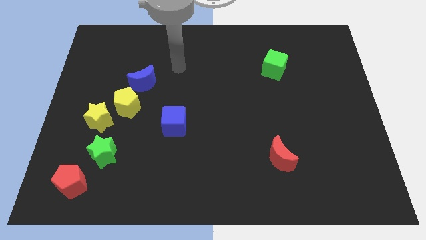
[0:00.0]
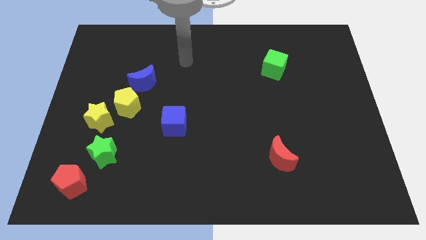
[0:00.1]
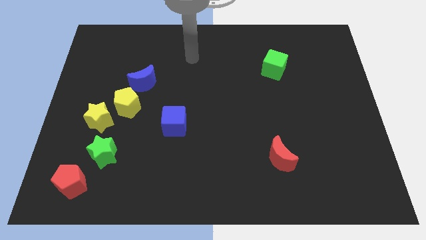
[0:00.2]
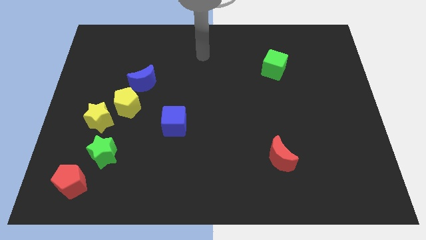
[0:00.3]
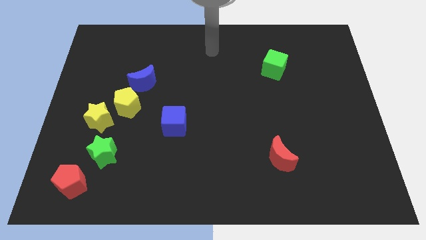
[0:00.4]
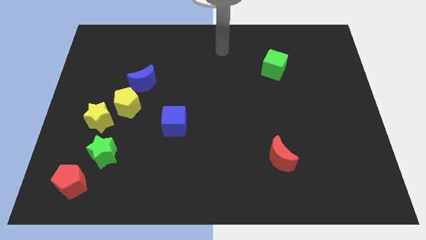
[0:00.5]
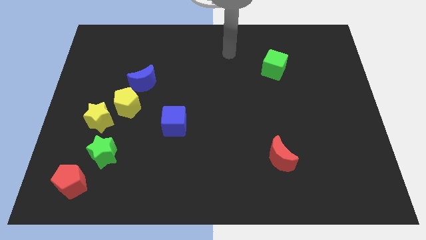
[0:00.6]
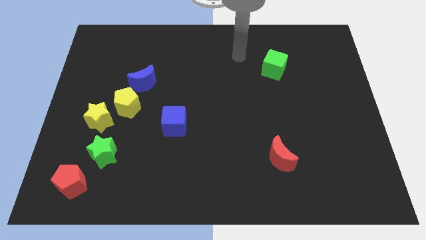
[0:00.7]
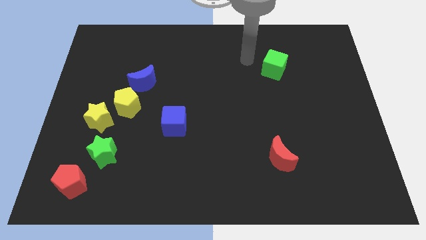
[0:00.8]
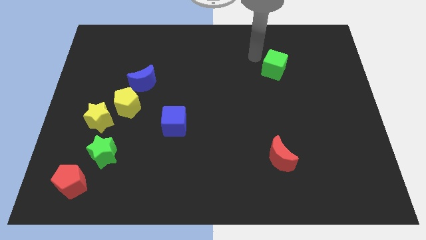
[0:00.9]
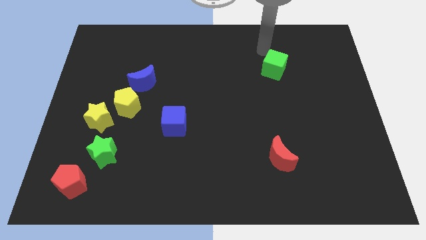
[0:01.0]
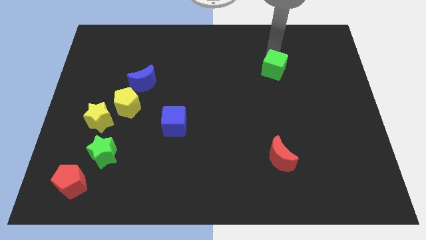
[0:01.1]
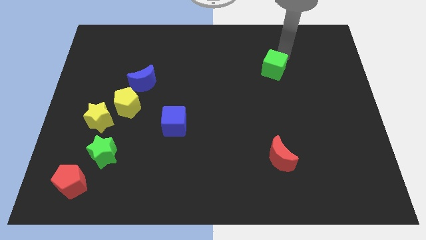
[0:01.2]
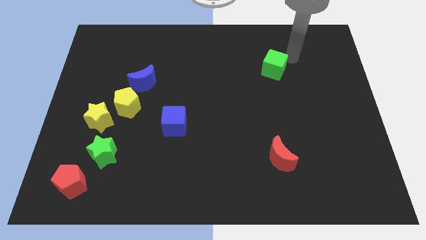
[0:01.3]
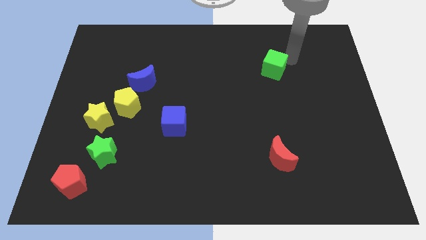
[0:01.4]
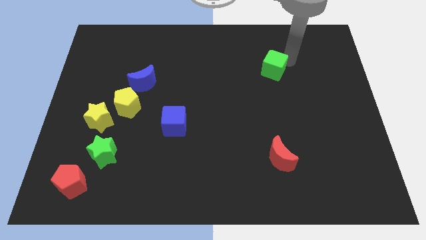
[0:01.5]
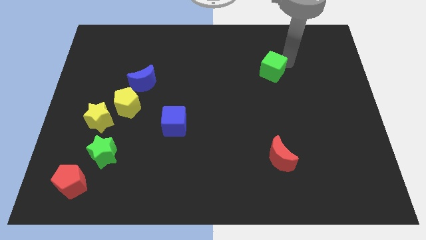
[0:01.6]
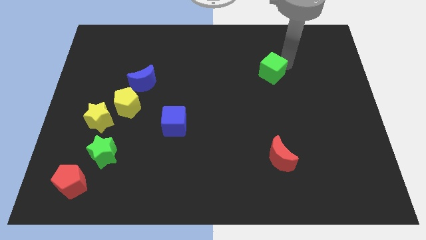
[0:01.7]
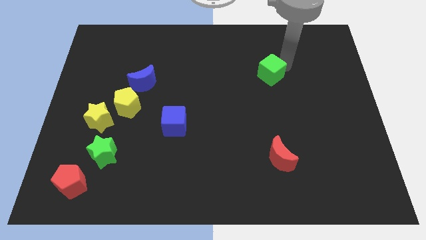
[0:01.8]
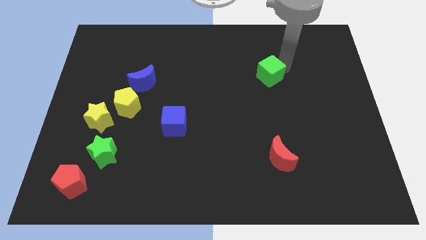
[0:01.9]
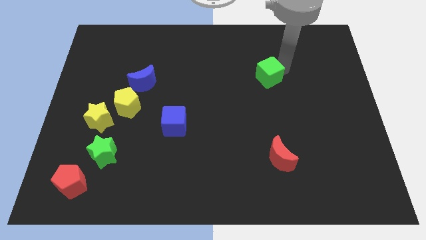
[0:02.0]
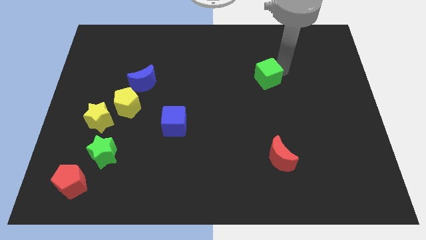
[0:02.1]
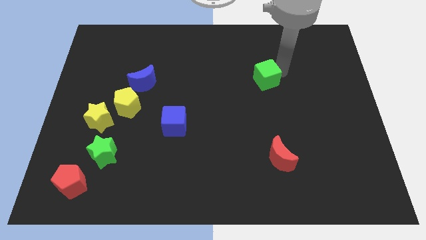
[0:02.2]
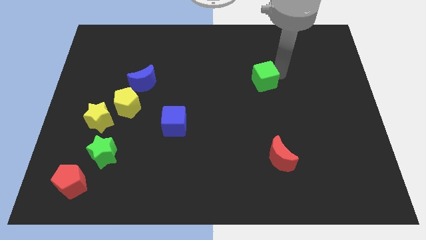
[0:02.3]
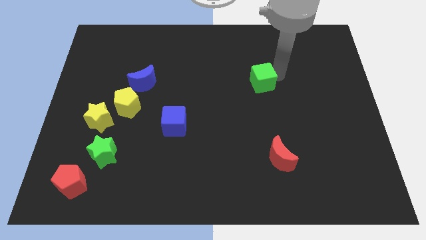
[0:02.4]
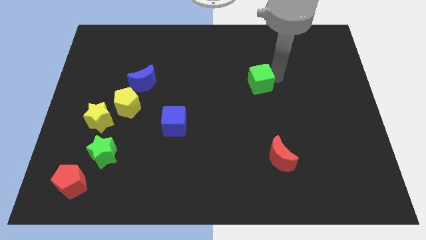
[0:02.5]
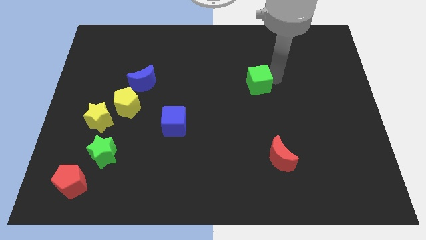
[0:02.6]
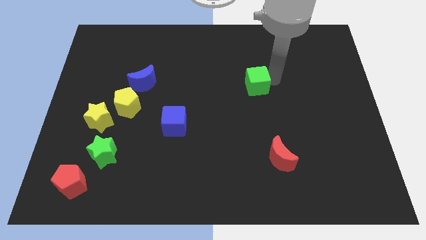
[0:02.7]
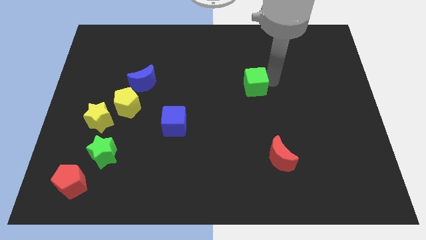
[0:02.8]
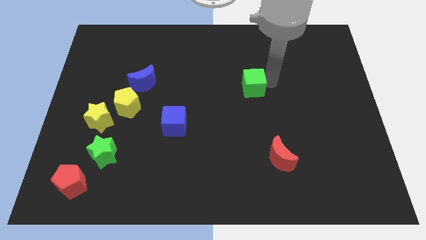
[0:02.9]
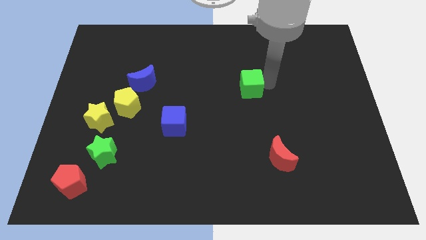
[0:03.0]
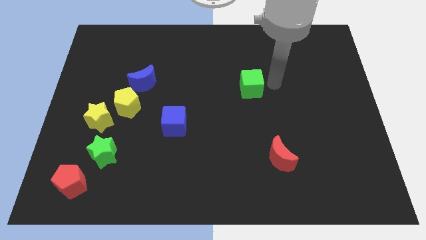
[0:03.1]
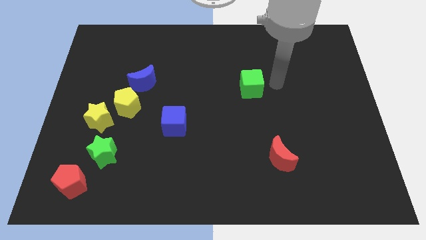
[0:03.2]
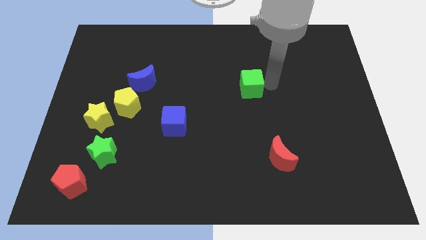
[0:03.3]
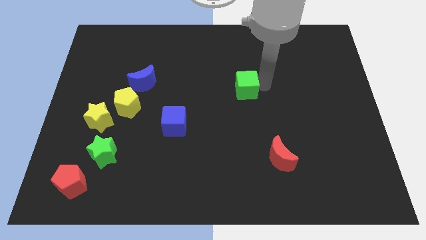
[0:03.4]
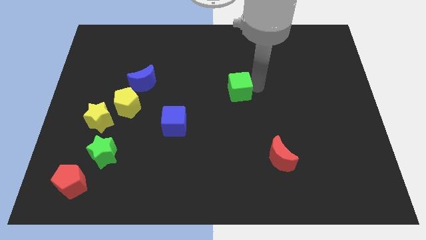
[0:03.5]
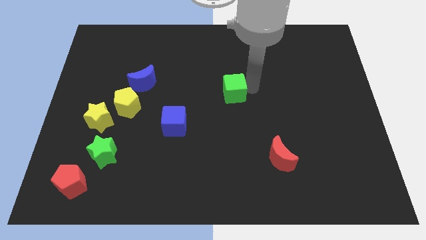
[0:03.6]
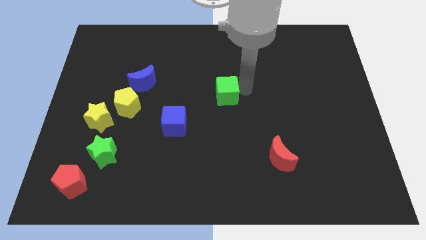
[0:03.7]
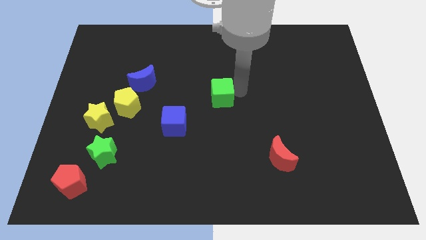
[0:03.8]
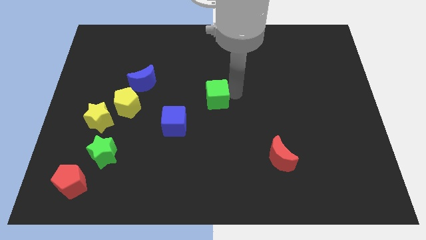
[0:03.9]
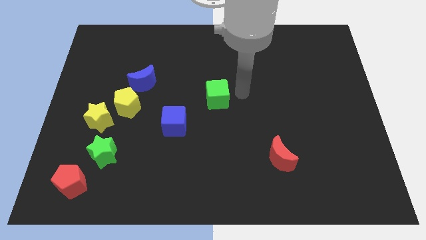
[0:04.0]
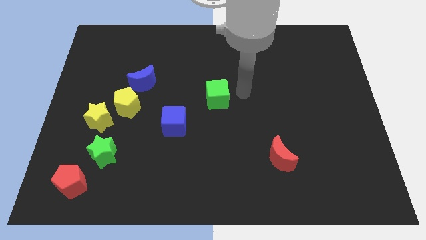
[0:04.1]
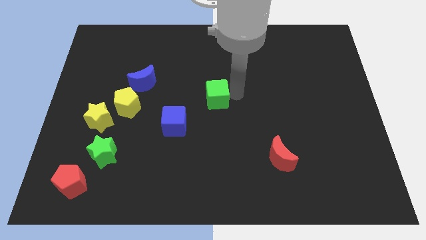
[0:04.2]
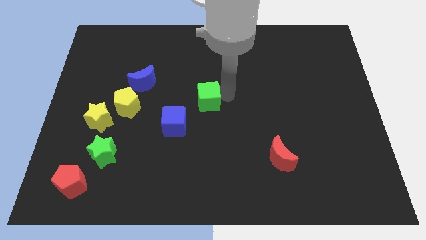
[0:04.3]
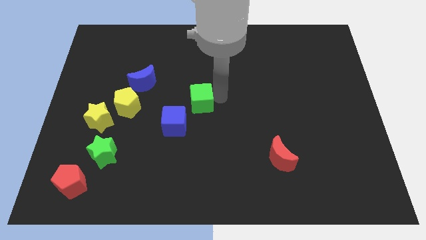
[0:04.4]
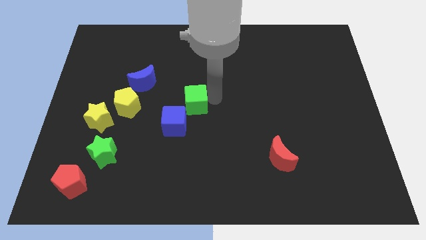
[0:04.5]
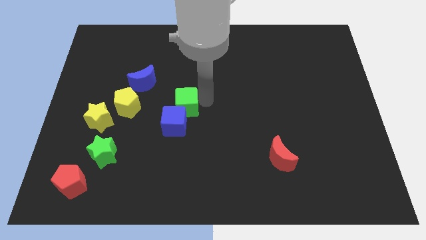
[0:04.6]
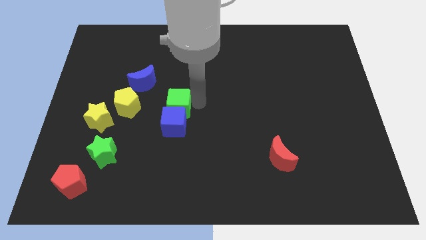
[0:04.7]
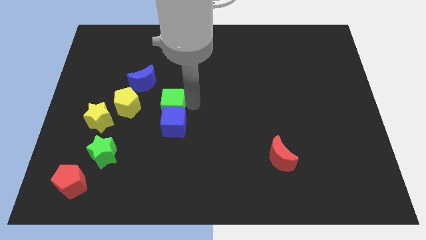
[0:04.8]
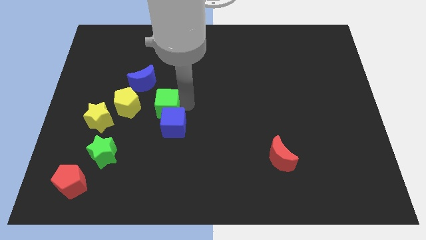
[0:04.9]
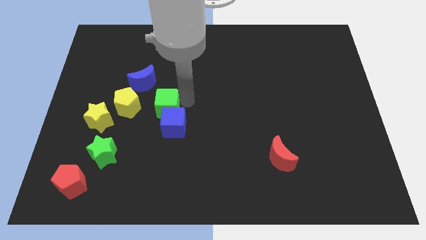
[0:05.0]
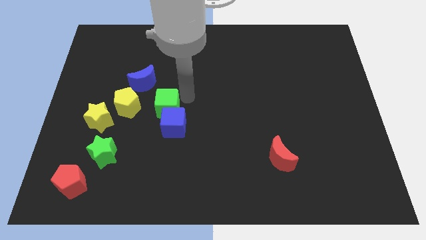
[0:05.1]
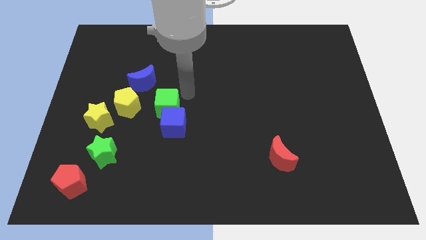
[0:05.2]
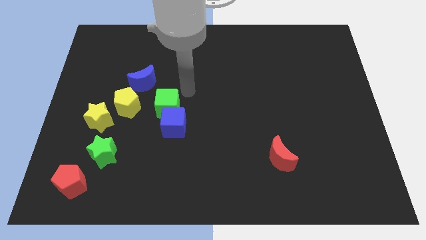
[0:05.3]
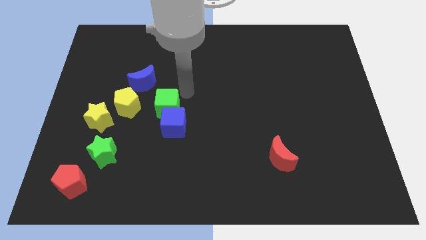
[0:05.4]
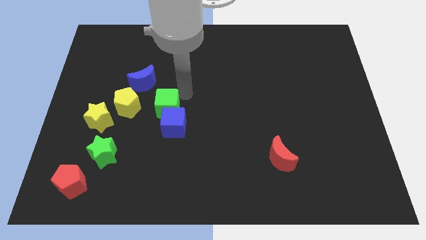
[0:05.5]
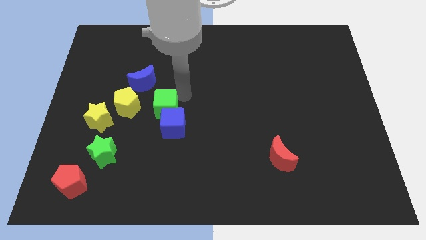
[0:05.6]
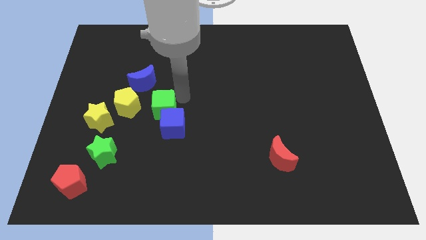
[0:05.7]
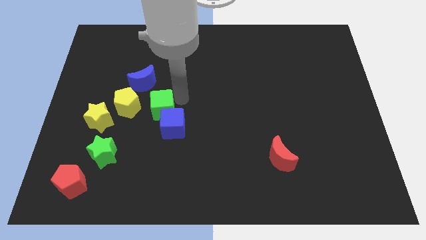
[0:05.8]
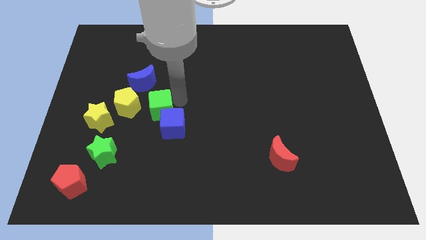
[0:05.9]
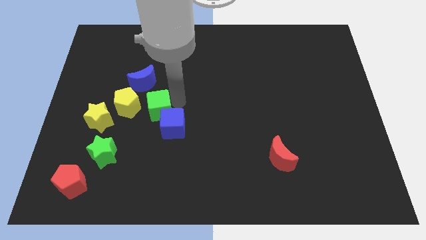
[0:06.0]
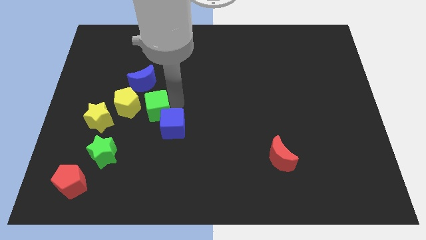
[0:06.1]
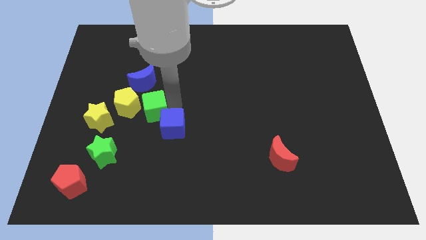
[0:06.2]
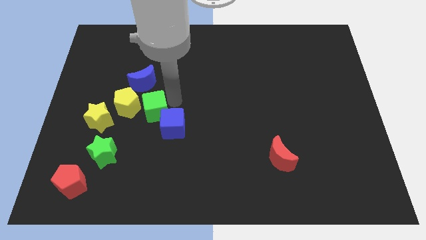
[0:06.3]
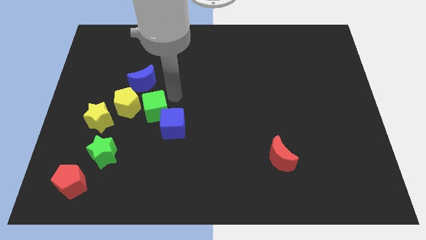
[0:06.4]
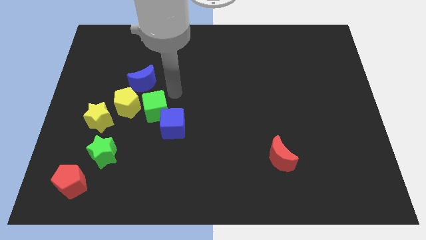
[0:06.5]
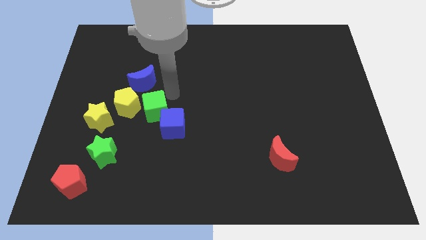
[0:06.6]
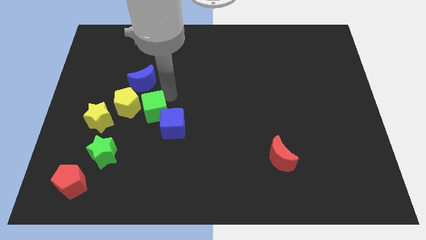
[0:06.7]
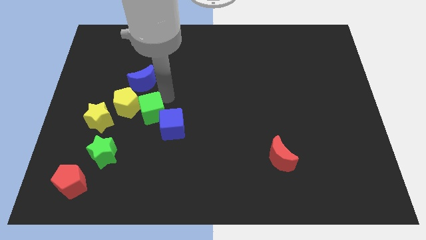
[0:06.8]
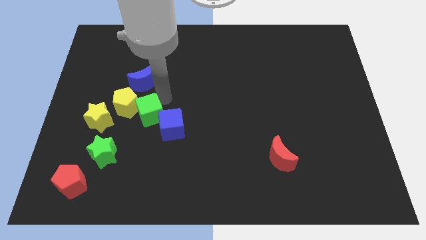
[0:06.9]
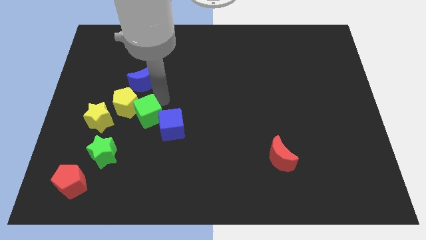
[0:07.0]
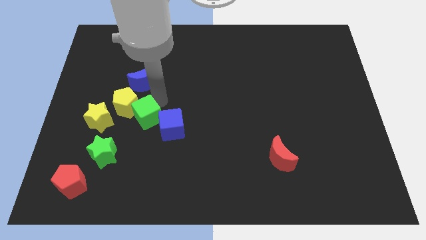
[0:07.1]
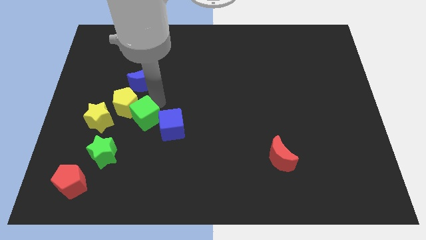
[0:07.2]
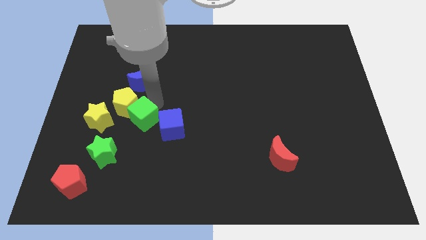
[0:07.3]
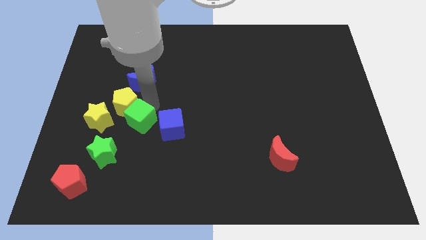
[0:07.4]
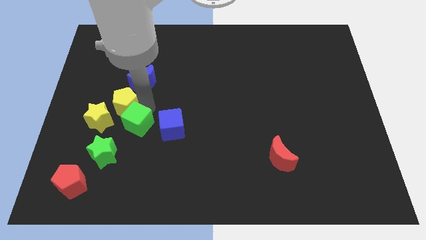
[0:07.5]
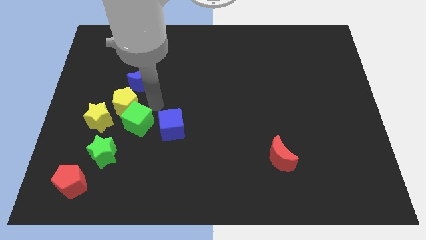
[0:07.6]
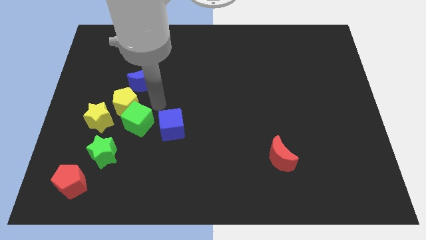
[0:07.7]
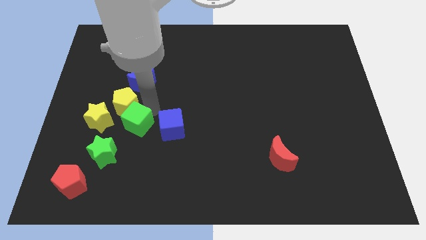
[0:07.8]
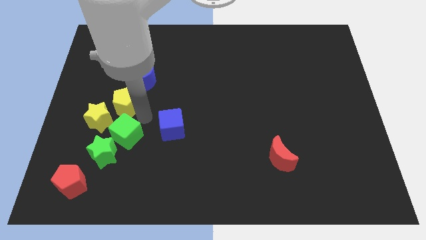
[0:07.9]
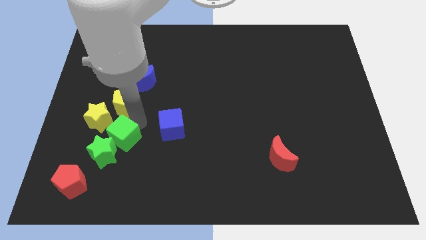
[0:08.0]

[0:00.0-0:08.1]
push the green cube to the green star
